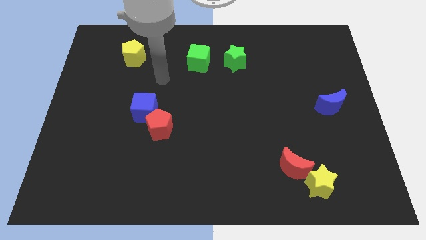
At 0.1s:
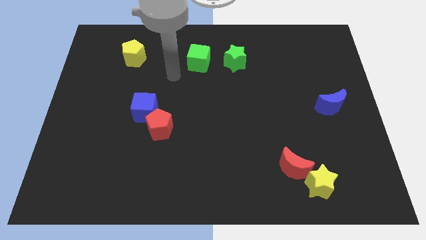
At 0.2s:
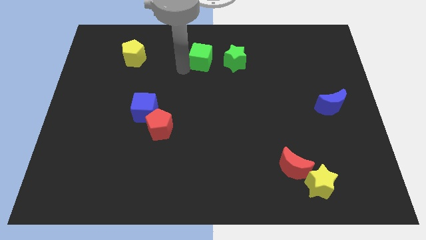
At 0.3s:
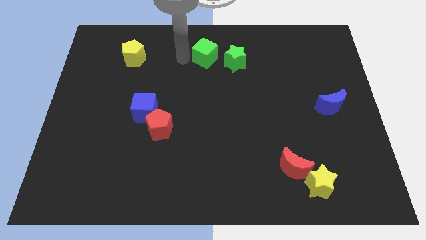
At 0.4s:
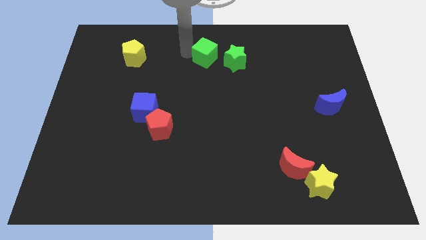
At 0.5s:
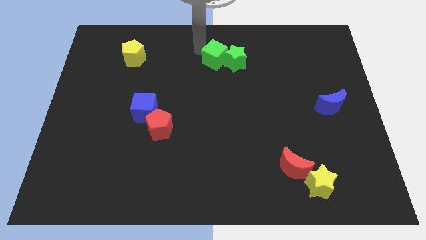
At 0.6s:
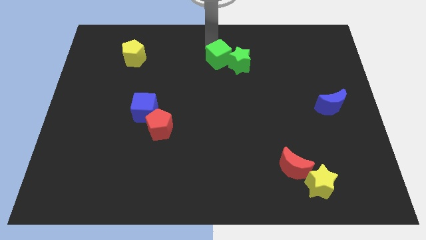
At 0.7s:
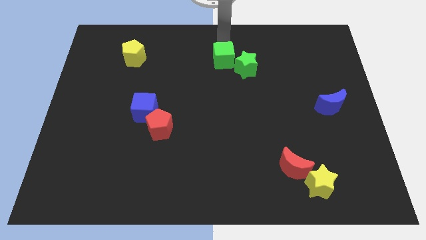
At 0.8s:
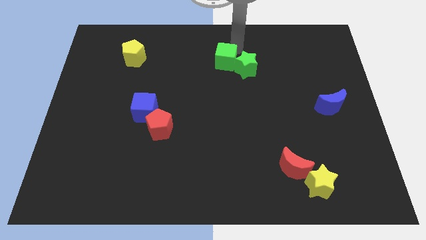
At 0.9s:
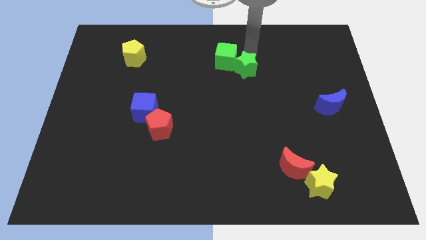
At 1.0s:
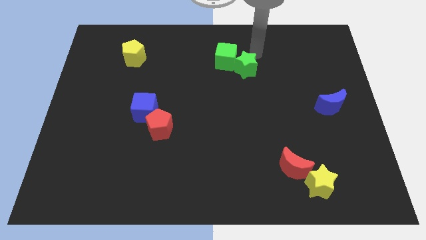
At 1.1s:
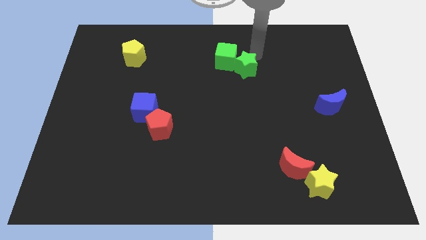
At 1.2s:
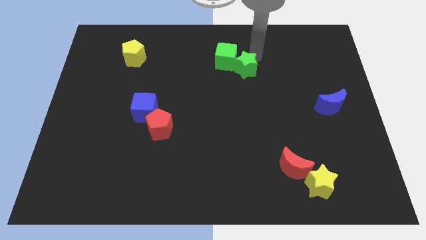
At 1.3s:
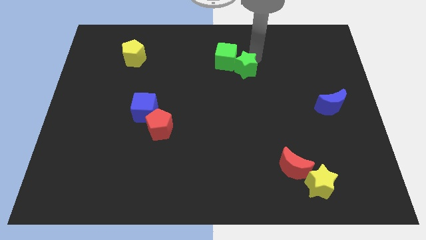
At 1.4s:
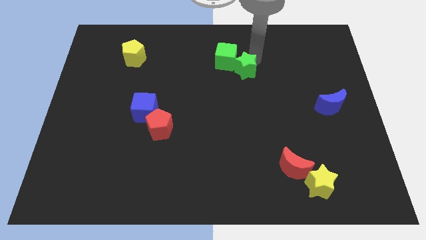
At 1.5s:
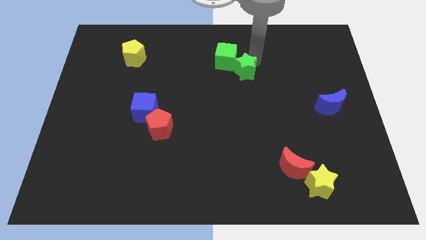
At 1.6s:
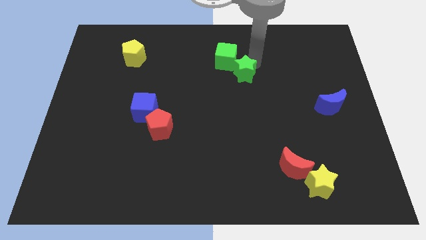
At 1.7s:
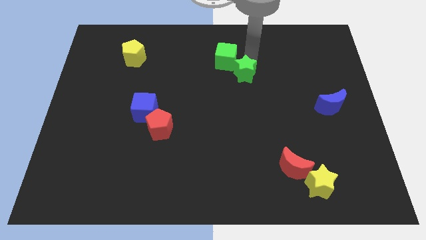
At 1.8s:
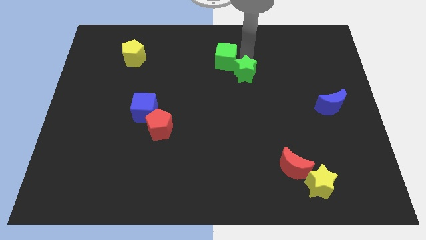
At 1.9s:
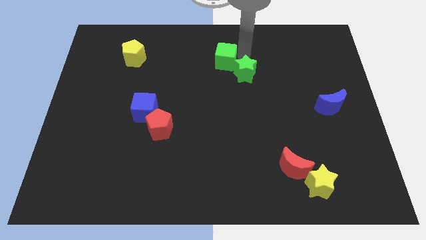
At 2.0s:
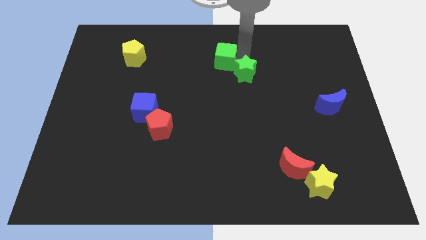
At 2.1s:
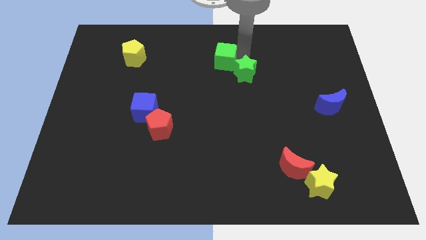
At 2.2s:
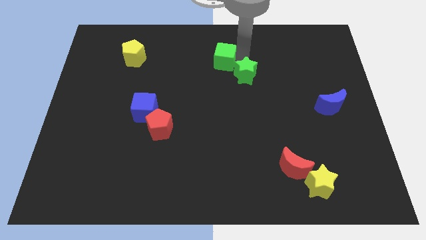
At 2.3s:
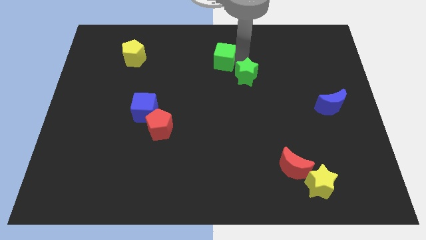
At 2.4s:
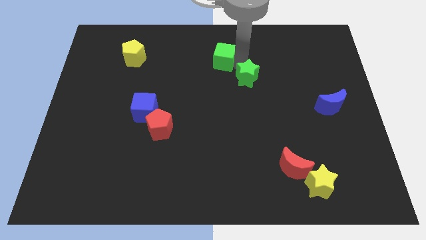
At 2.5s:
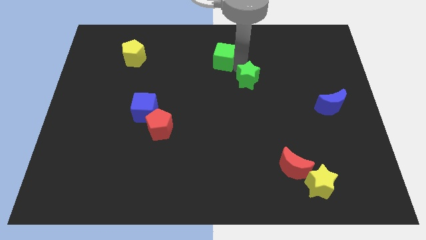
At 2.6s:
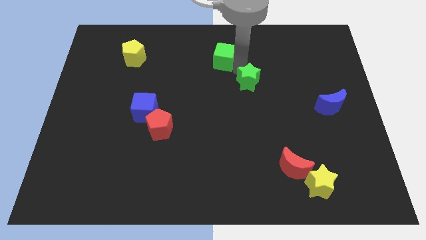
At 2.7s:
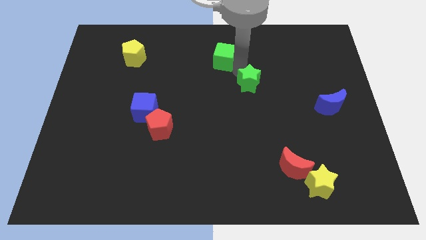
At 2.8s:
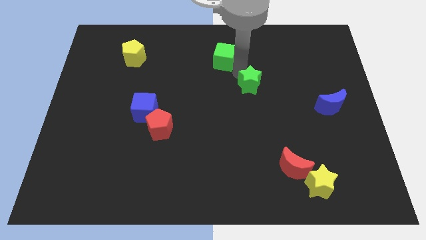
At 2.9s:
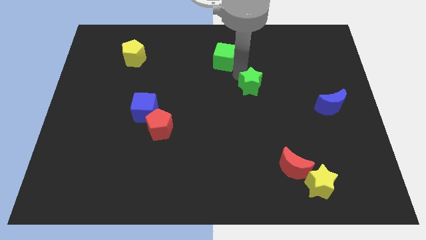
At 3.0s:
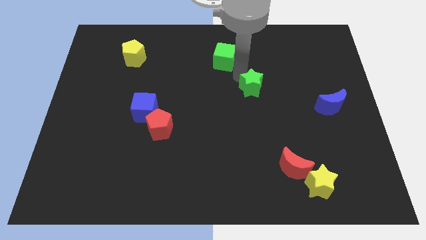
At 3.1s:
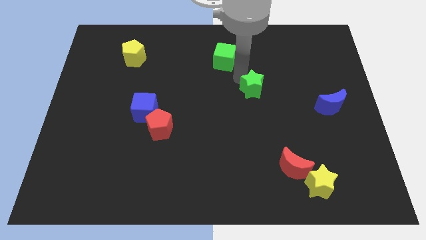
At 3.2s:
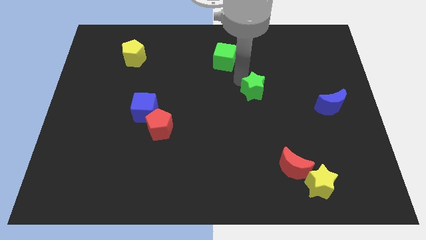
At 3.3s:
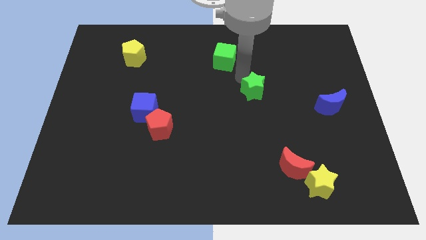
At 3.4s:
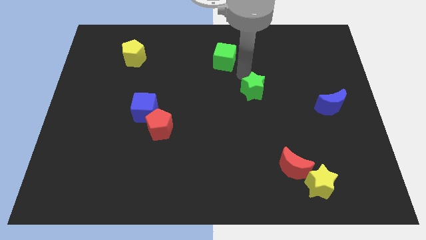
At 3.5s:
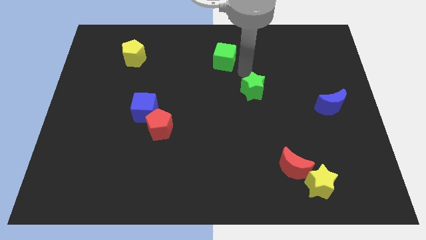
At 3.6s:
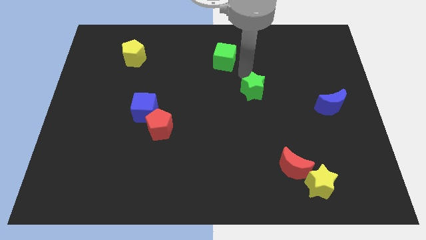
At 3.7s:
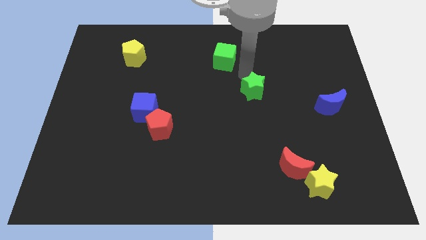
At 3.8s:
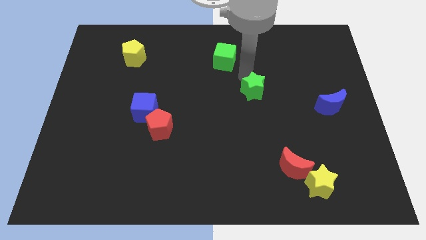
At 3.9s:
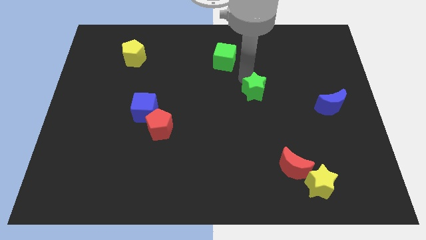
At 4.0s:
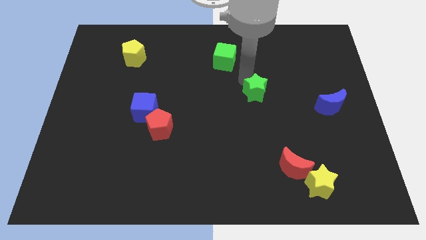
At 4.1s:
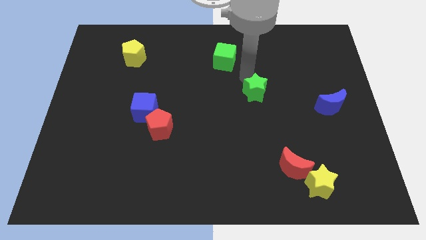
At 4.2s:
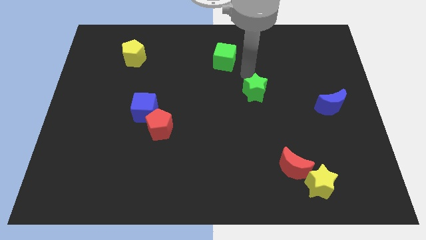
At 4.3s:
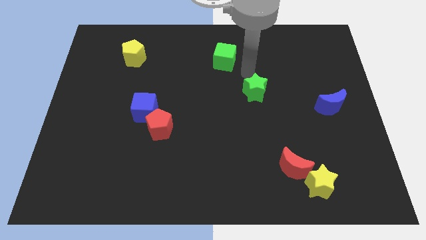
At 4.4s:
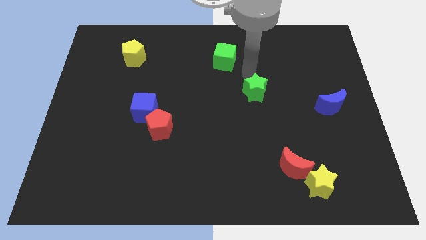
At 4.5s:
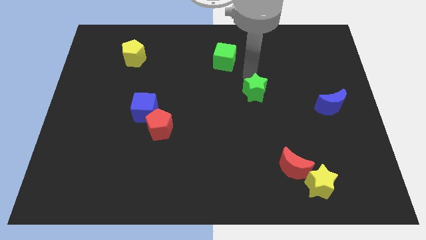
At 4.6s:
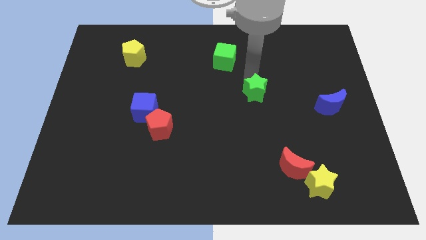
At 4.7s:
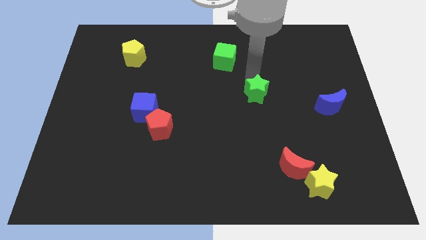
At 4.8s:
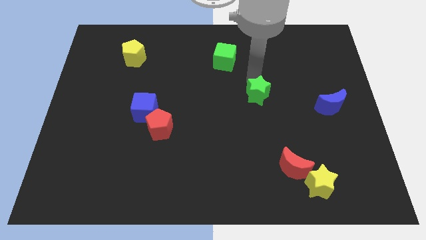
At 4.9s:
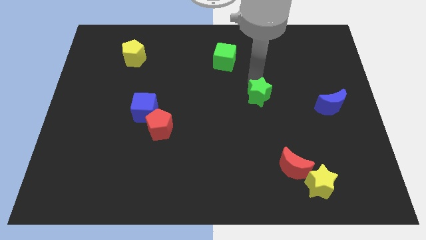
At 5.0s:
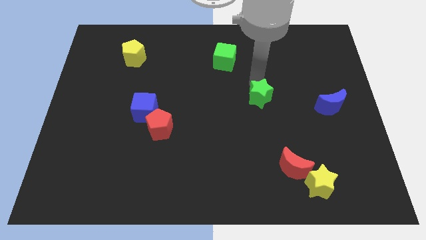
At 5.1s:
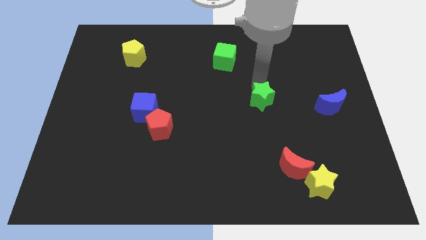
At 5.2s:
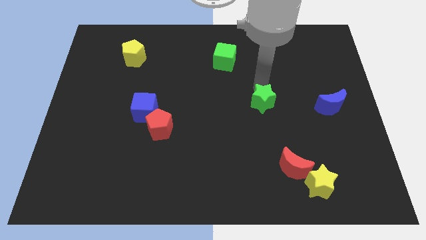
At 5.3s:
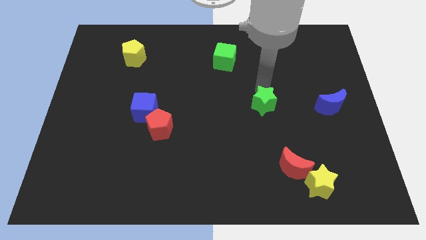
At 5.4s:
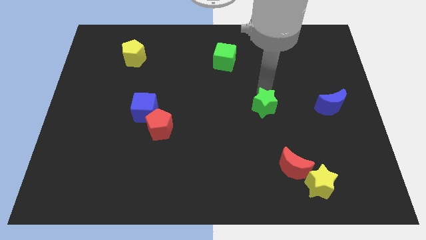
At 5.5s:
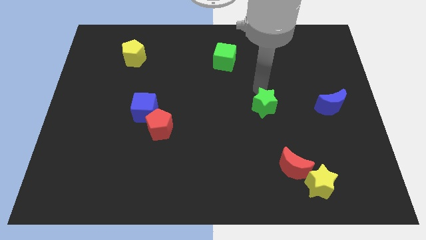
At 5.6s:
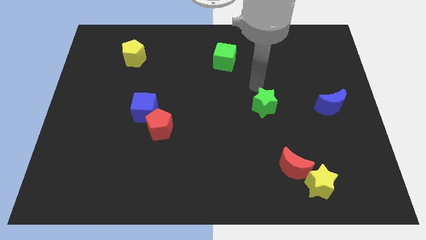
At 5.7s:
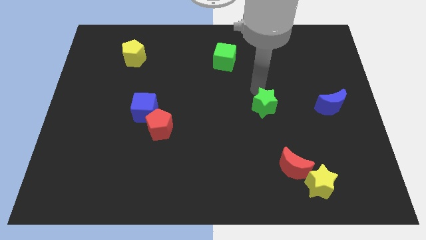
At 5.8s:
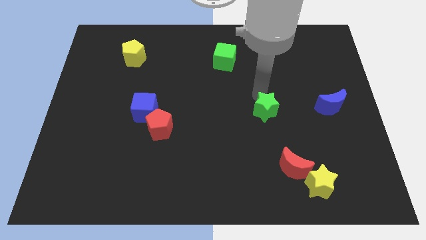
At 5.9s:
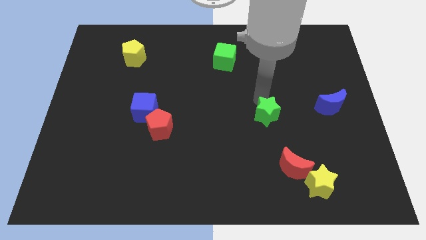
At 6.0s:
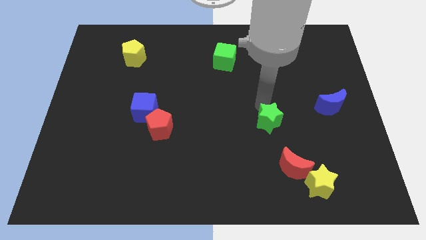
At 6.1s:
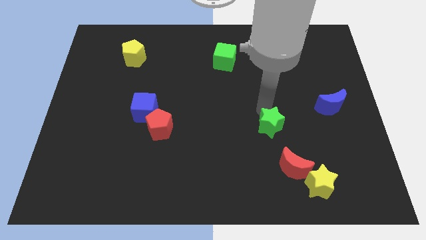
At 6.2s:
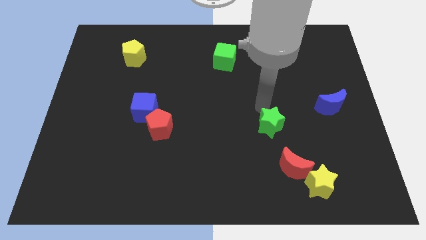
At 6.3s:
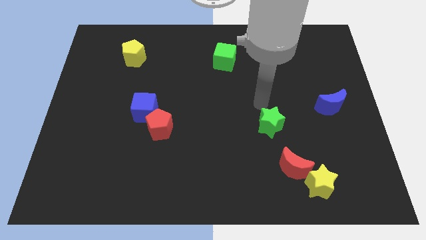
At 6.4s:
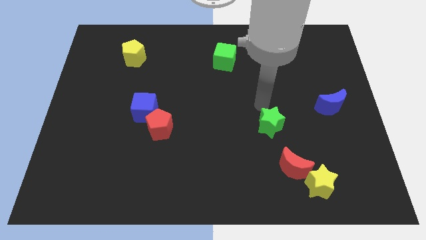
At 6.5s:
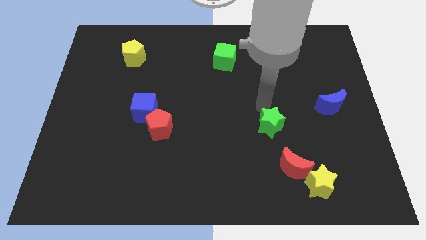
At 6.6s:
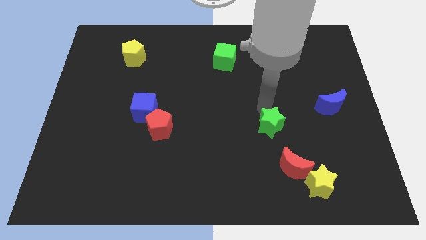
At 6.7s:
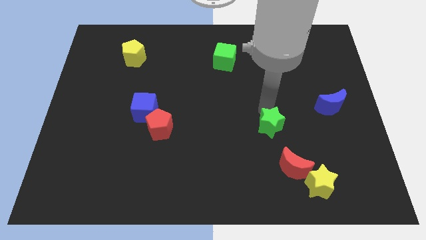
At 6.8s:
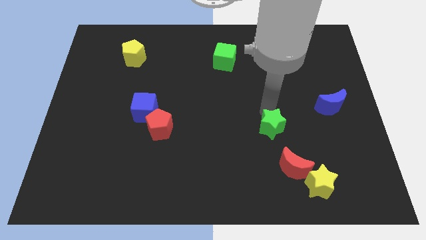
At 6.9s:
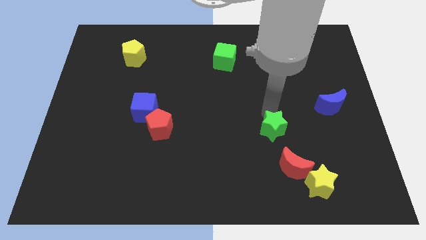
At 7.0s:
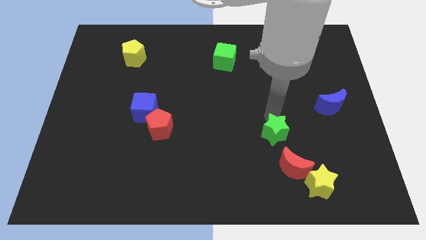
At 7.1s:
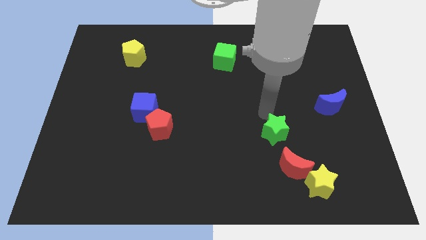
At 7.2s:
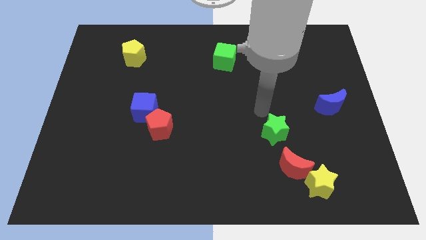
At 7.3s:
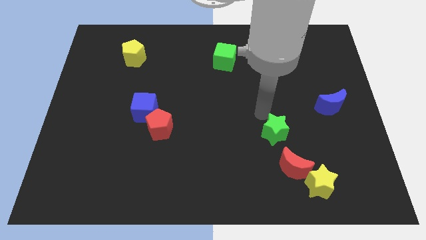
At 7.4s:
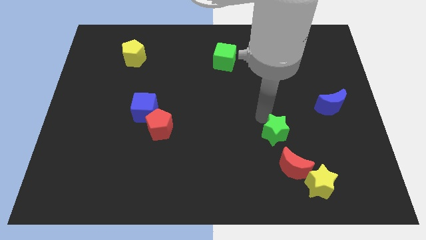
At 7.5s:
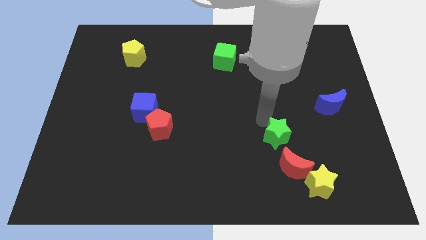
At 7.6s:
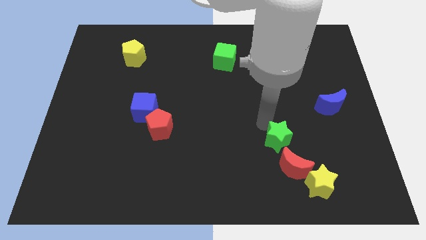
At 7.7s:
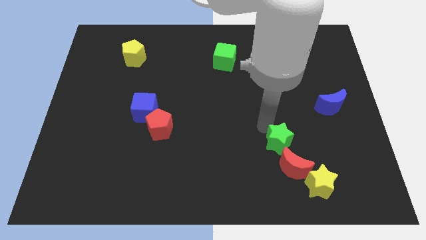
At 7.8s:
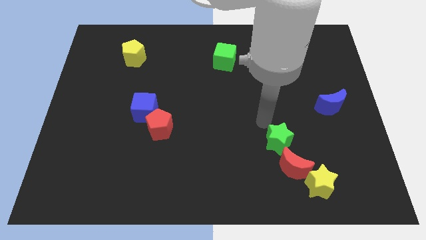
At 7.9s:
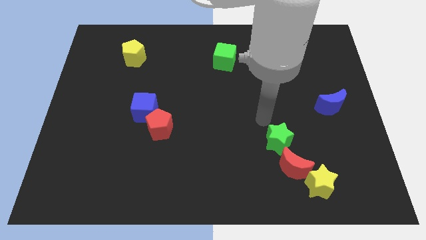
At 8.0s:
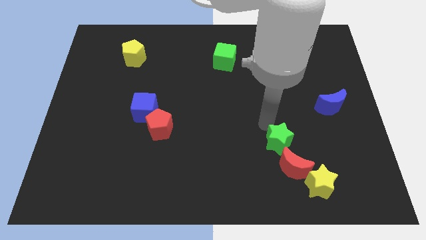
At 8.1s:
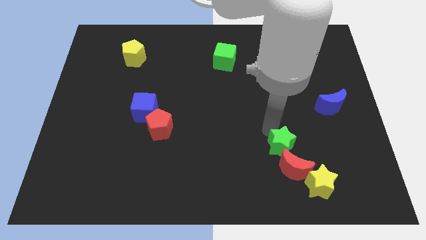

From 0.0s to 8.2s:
move the green star close to the red moon
